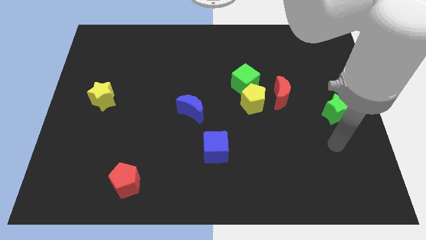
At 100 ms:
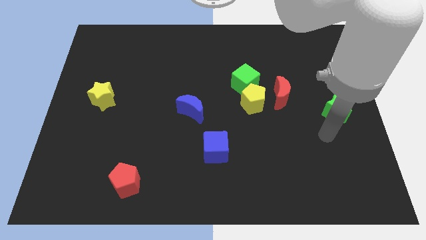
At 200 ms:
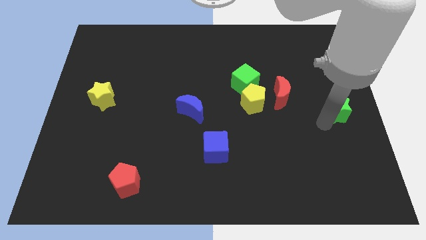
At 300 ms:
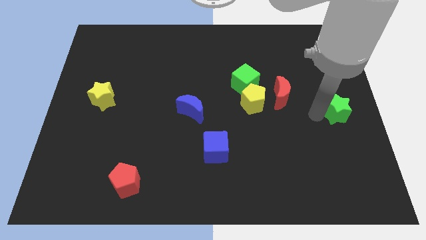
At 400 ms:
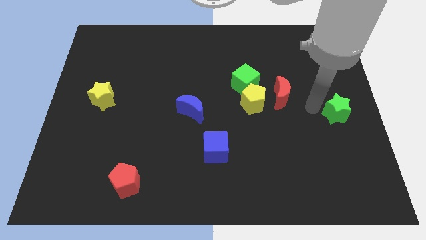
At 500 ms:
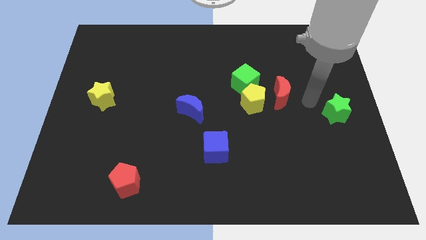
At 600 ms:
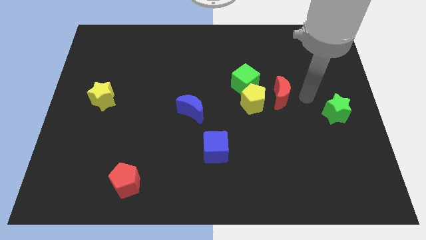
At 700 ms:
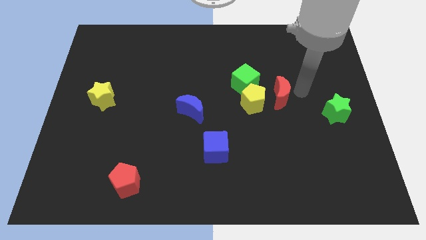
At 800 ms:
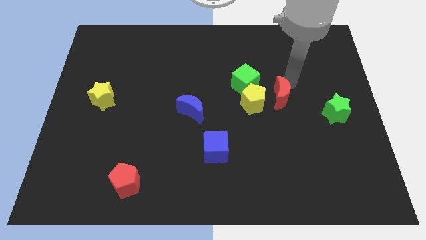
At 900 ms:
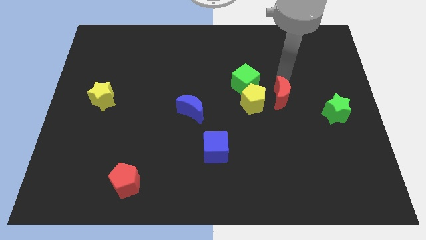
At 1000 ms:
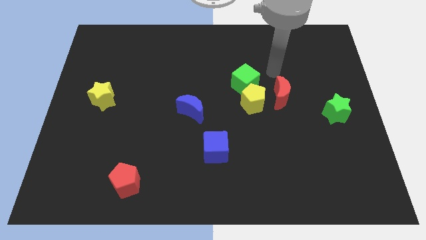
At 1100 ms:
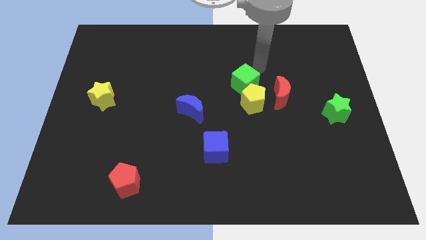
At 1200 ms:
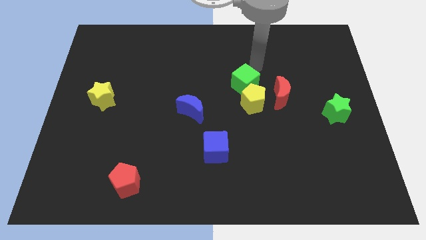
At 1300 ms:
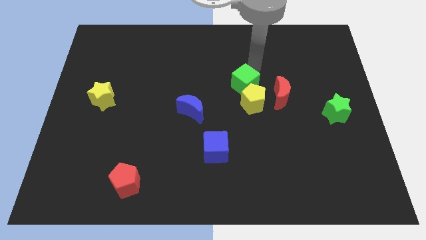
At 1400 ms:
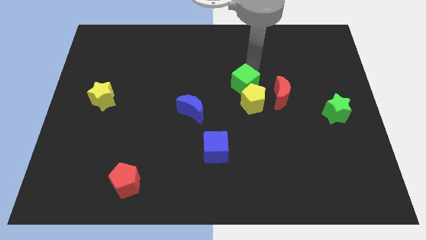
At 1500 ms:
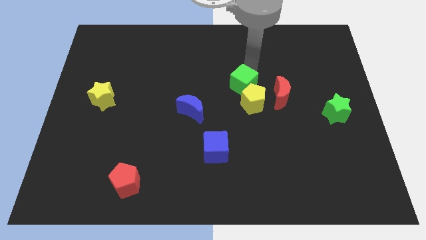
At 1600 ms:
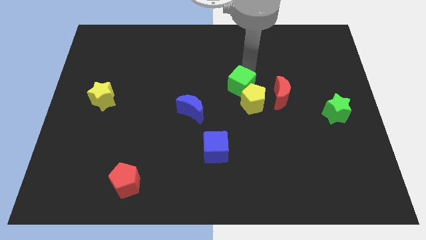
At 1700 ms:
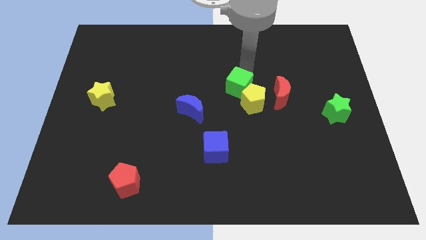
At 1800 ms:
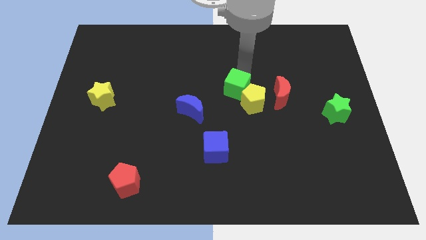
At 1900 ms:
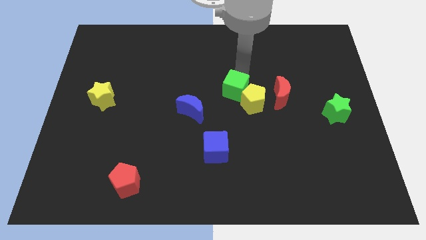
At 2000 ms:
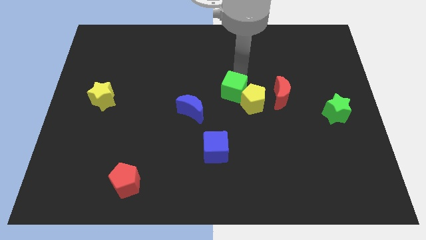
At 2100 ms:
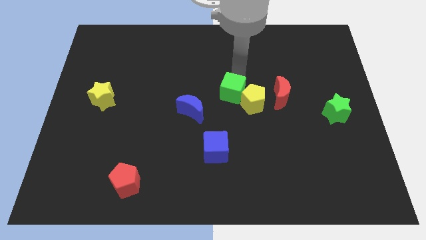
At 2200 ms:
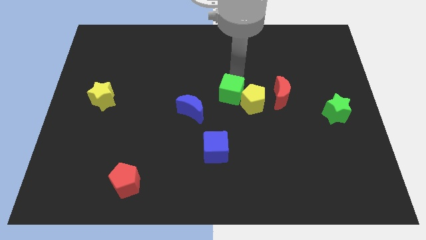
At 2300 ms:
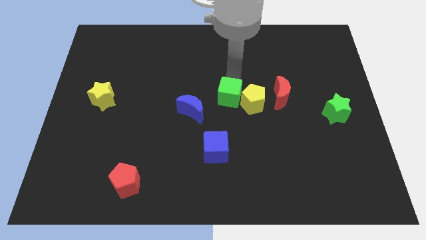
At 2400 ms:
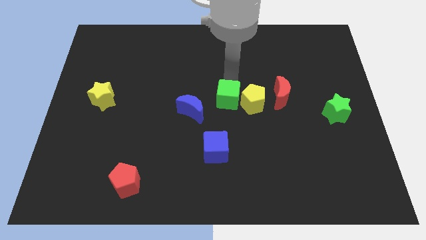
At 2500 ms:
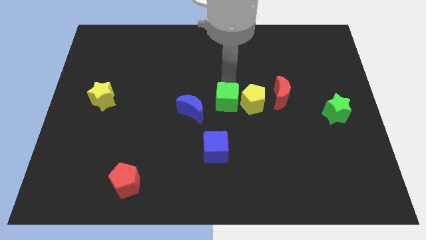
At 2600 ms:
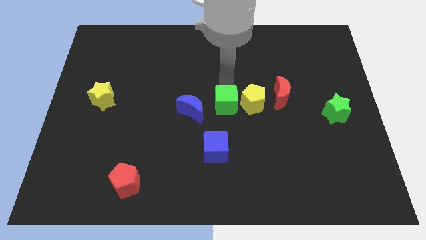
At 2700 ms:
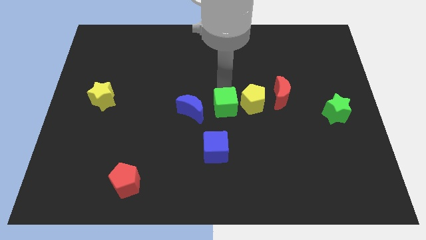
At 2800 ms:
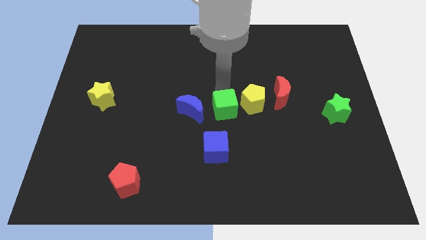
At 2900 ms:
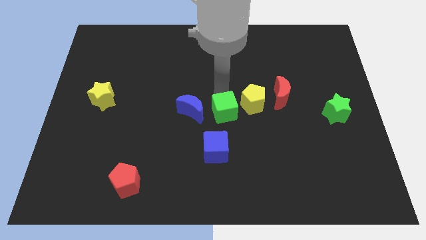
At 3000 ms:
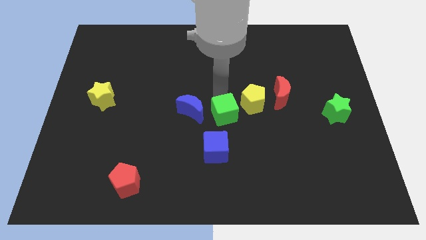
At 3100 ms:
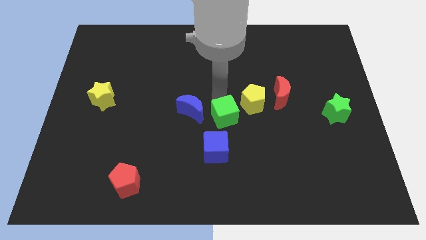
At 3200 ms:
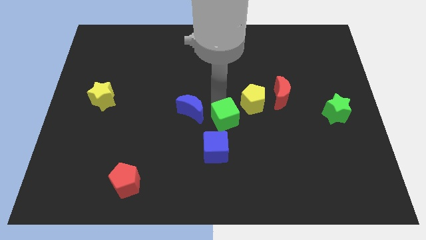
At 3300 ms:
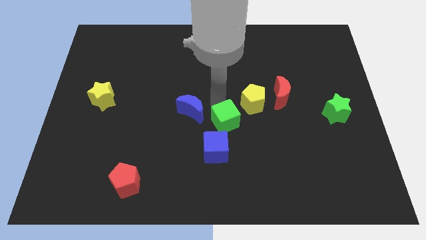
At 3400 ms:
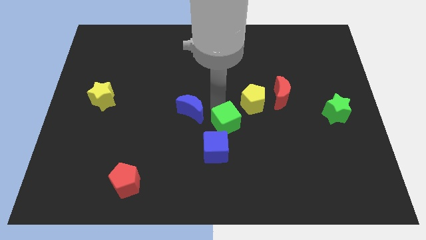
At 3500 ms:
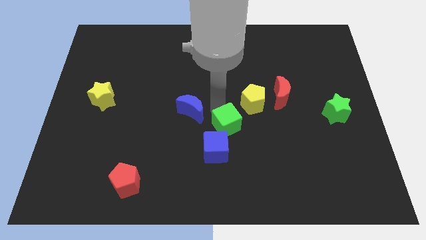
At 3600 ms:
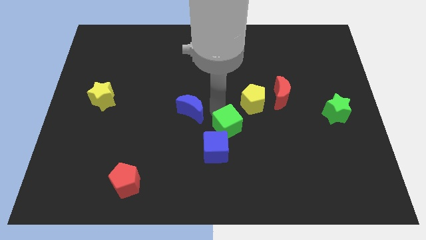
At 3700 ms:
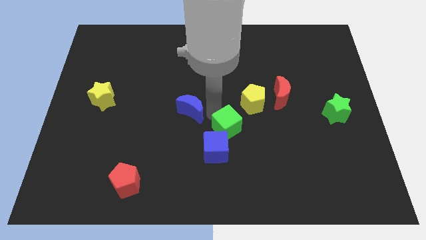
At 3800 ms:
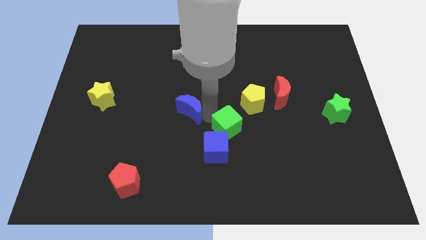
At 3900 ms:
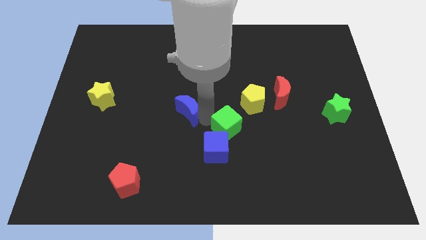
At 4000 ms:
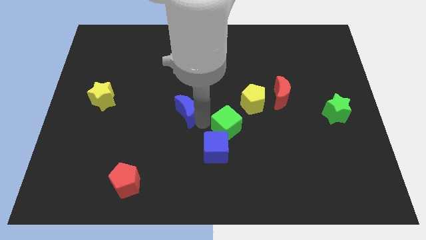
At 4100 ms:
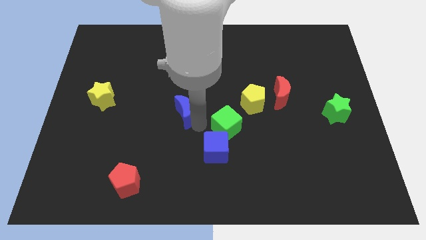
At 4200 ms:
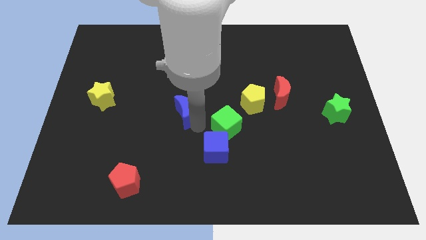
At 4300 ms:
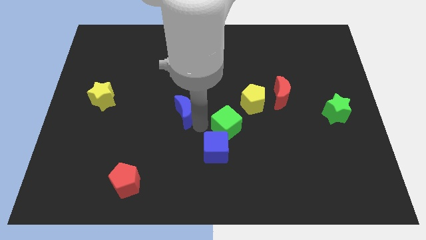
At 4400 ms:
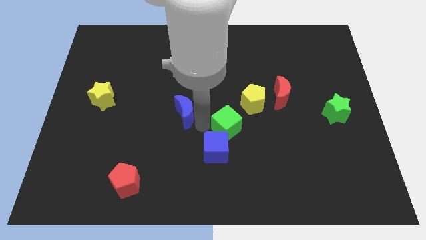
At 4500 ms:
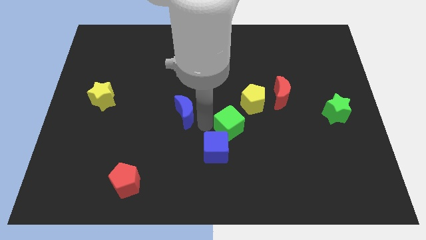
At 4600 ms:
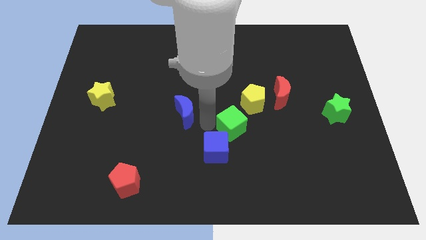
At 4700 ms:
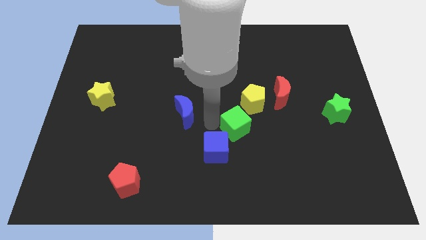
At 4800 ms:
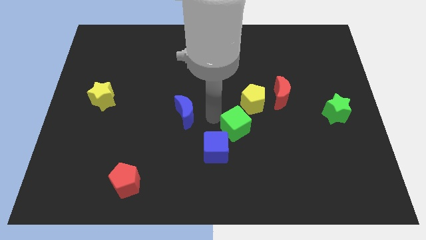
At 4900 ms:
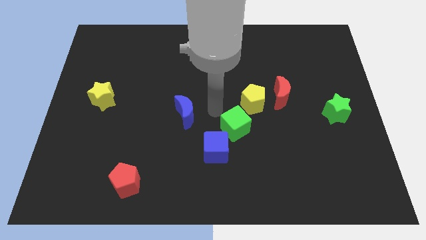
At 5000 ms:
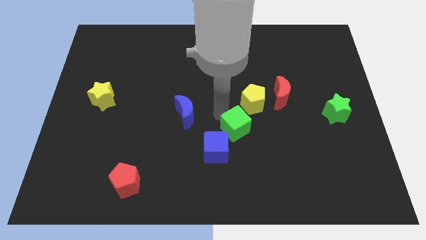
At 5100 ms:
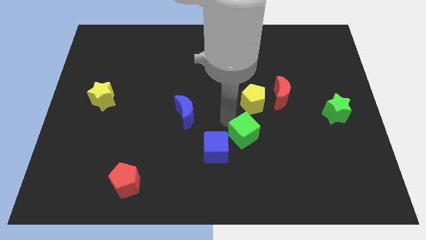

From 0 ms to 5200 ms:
move the green cube right of the blue cube

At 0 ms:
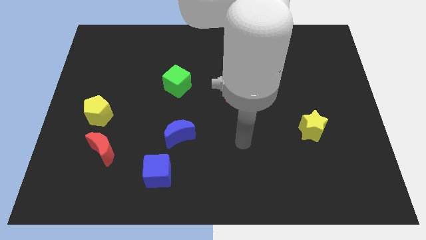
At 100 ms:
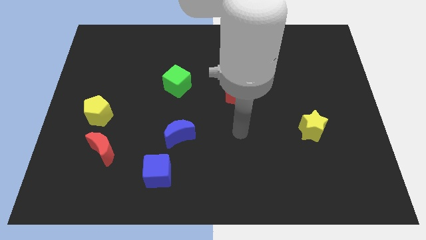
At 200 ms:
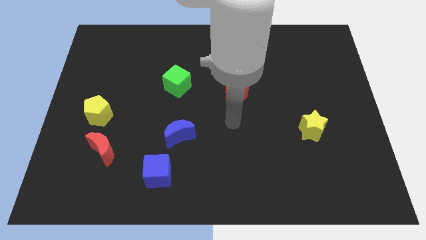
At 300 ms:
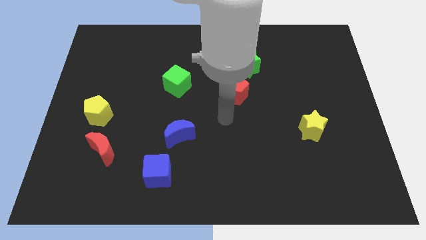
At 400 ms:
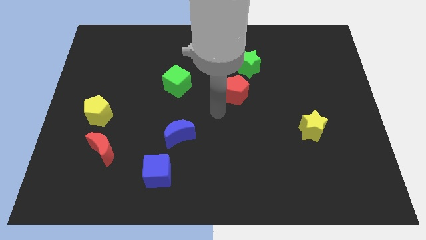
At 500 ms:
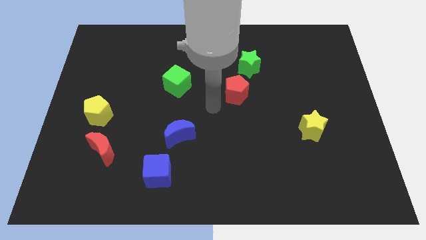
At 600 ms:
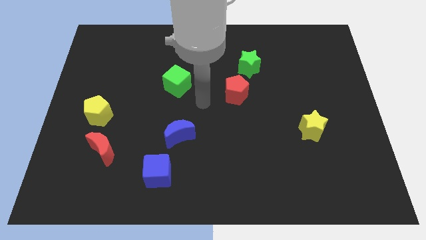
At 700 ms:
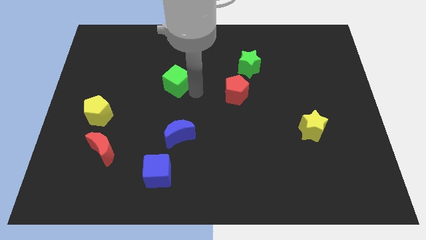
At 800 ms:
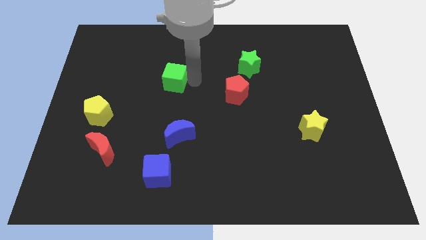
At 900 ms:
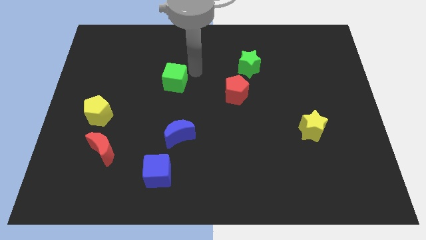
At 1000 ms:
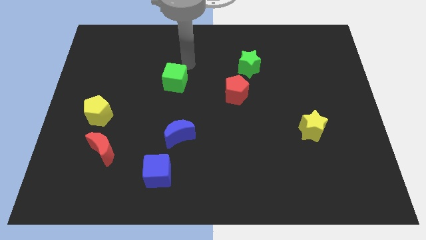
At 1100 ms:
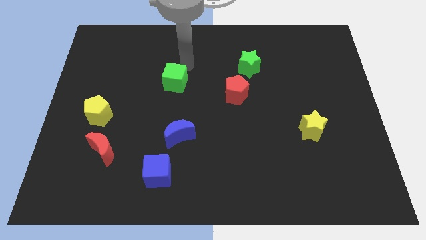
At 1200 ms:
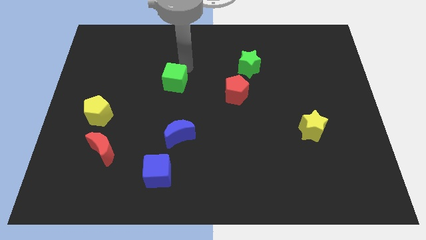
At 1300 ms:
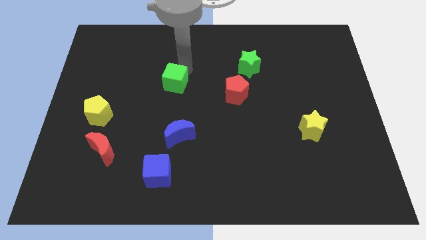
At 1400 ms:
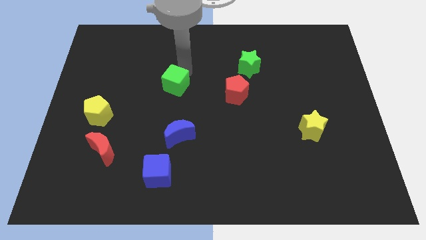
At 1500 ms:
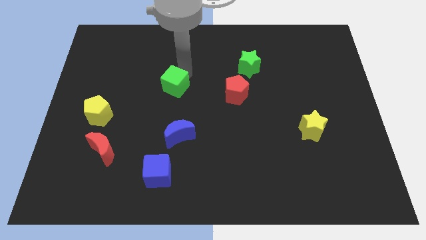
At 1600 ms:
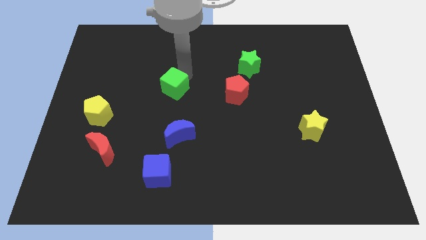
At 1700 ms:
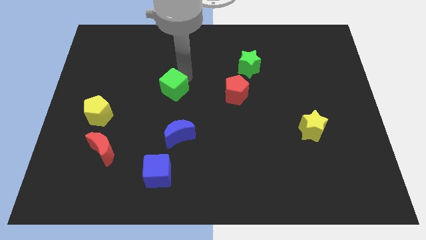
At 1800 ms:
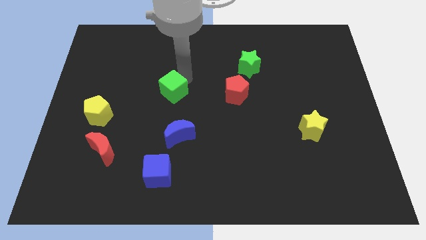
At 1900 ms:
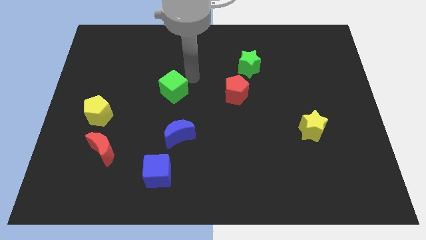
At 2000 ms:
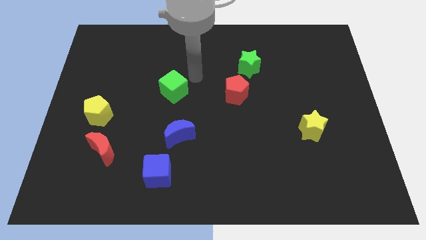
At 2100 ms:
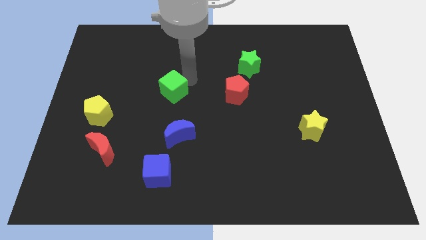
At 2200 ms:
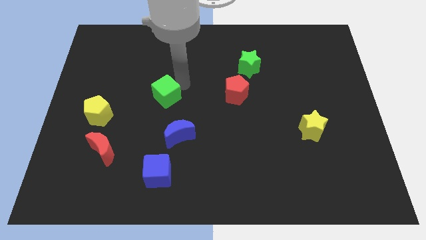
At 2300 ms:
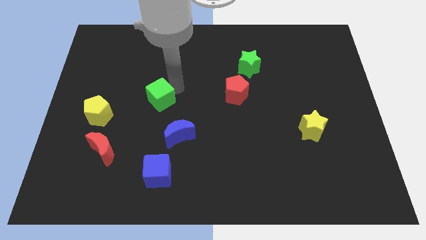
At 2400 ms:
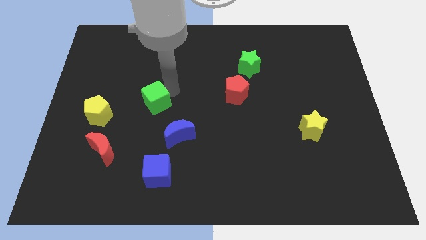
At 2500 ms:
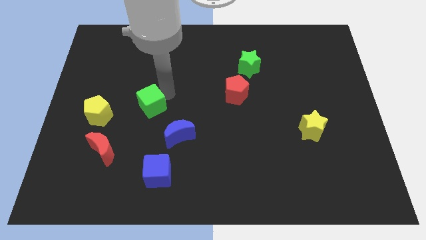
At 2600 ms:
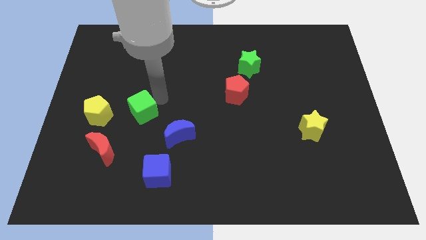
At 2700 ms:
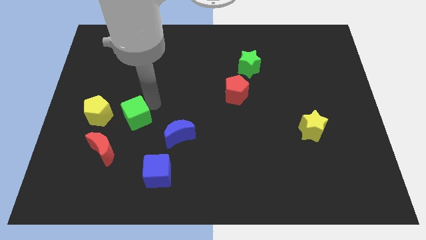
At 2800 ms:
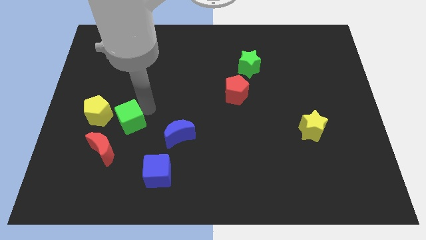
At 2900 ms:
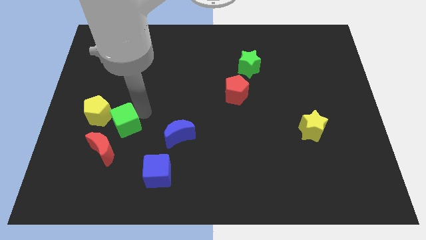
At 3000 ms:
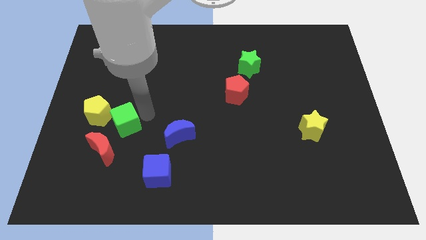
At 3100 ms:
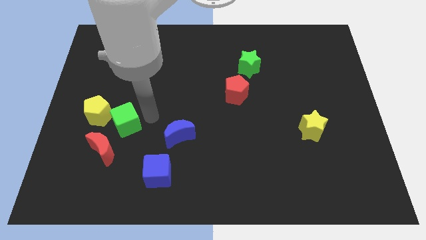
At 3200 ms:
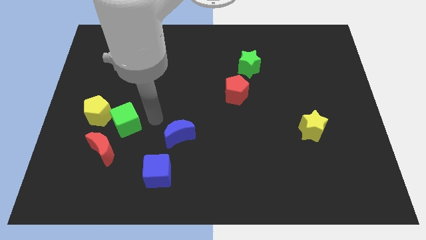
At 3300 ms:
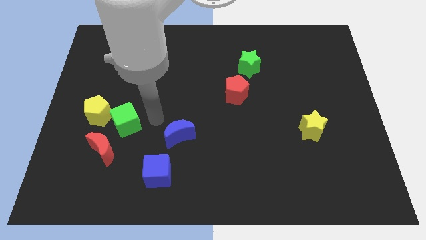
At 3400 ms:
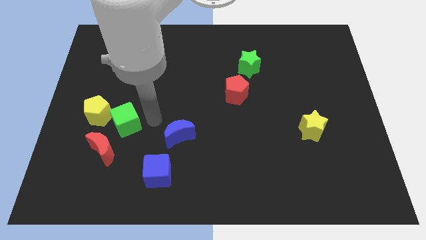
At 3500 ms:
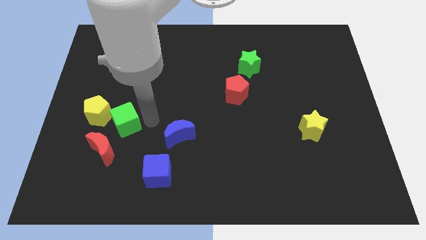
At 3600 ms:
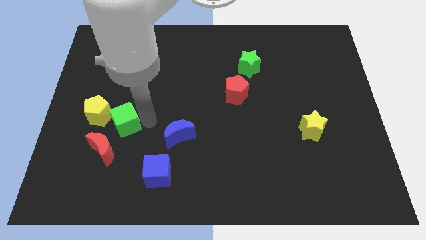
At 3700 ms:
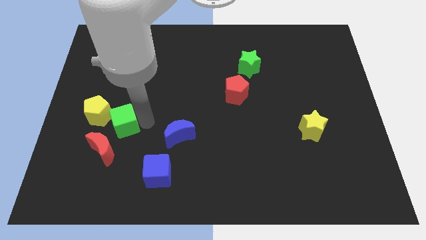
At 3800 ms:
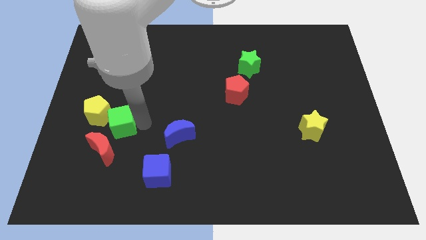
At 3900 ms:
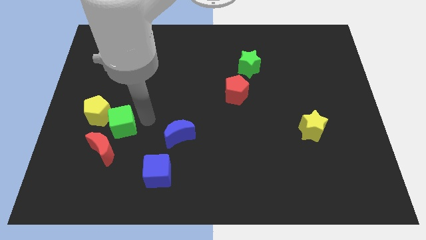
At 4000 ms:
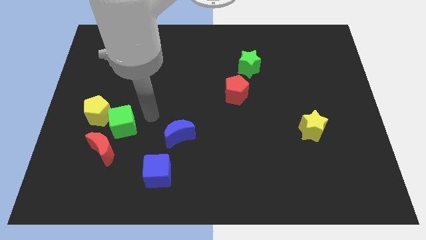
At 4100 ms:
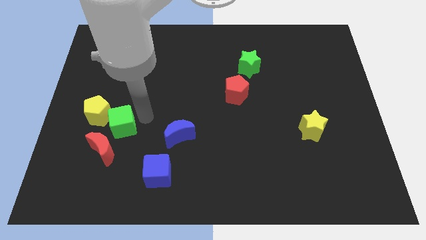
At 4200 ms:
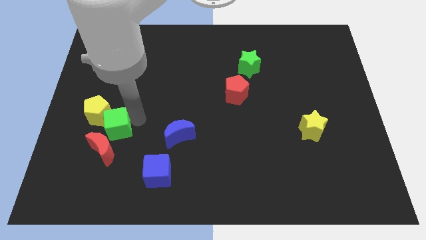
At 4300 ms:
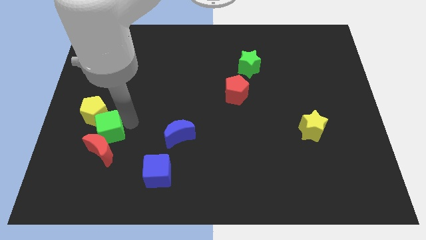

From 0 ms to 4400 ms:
put the green cube to the bottom side of the yellow pentagon
